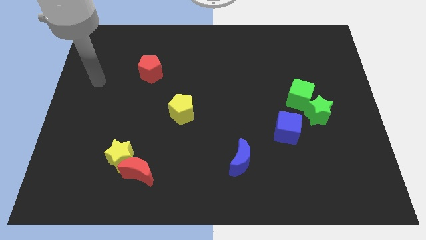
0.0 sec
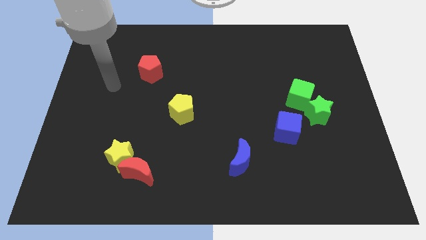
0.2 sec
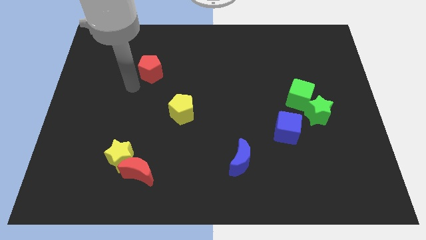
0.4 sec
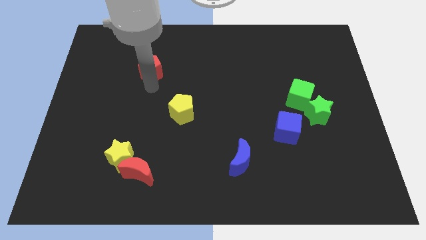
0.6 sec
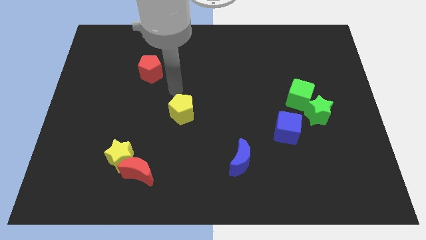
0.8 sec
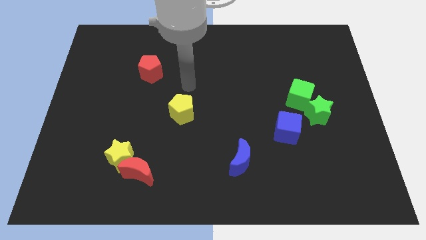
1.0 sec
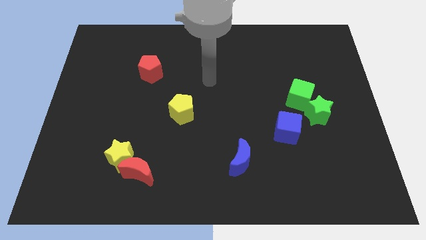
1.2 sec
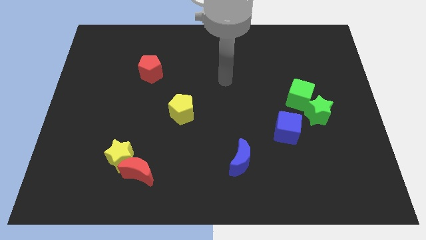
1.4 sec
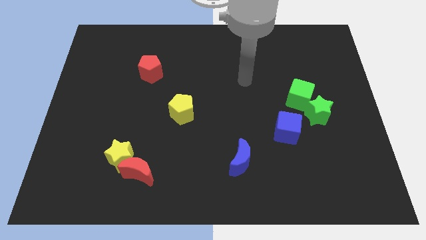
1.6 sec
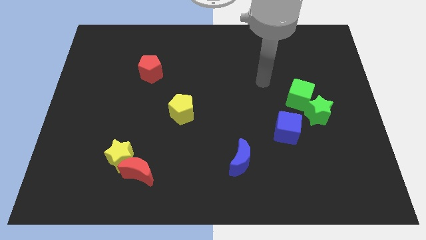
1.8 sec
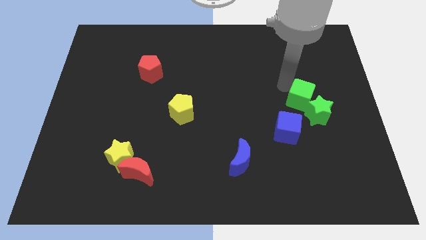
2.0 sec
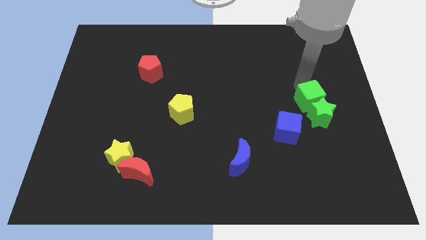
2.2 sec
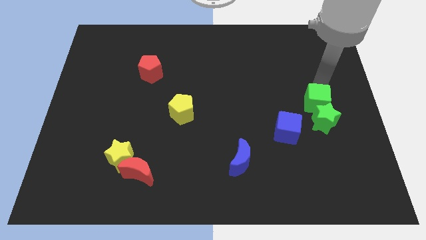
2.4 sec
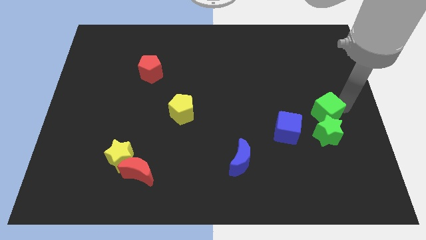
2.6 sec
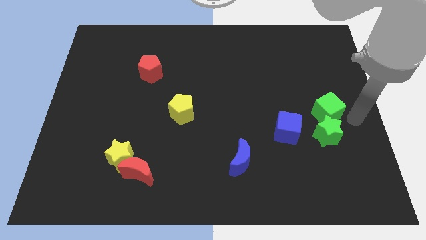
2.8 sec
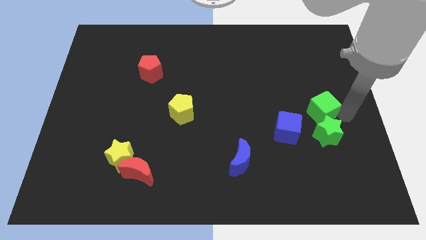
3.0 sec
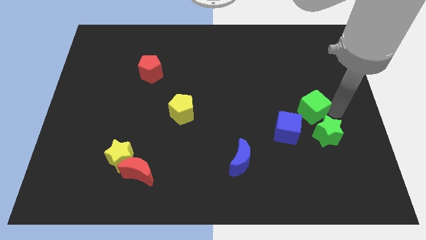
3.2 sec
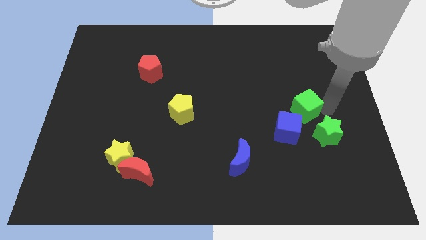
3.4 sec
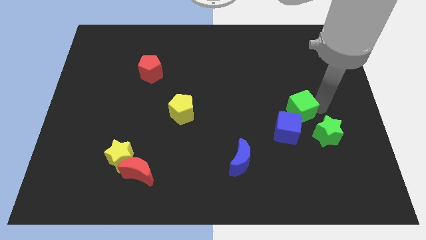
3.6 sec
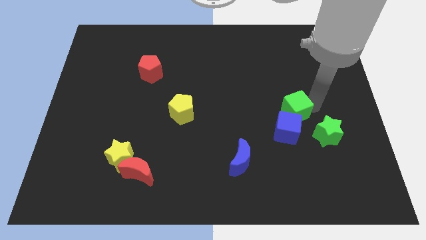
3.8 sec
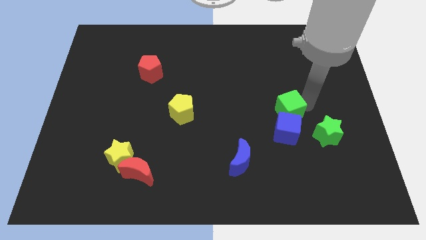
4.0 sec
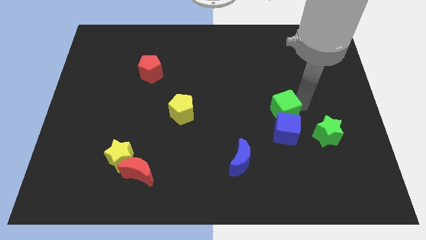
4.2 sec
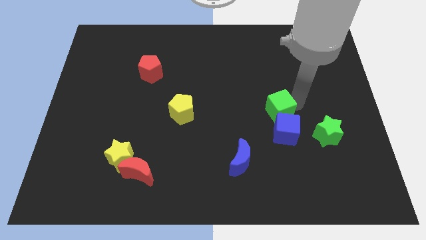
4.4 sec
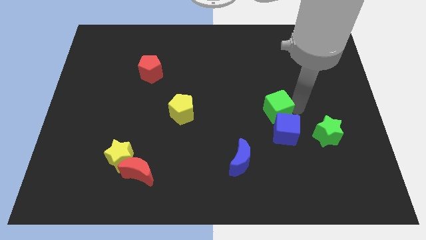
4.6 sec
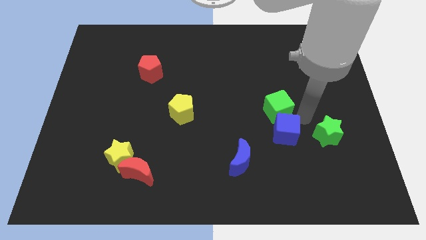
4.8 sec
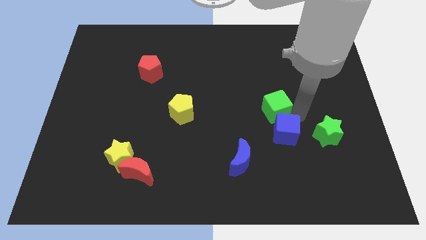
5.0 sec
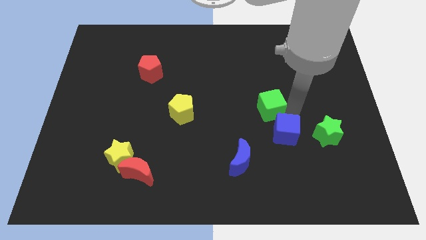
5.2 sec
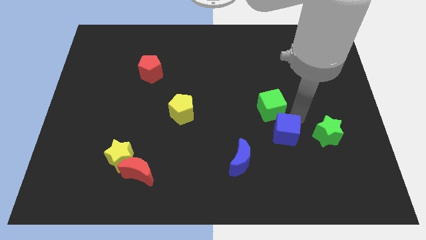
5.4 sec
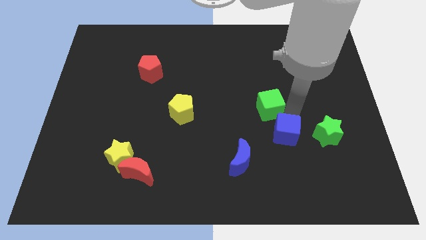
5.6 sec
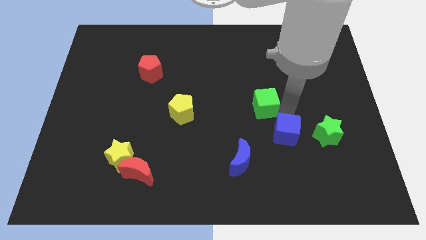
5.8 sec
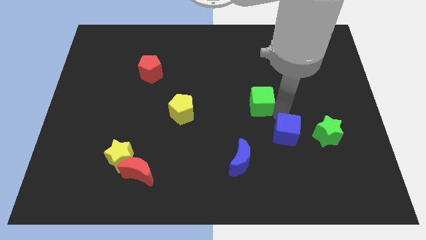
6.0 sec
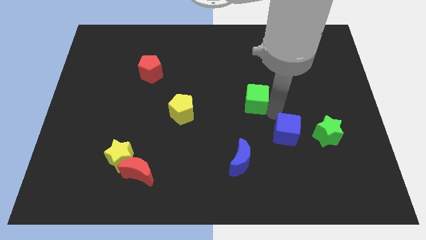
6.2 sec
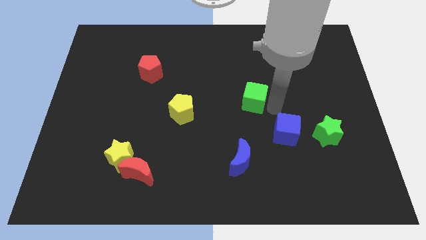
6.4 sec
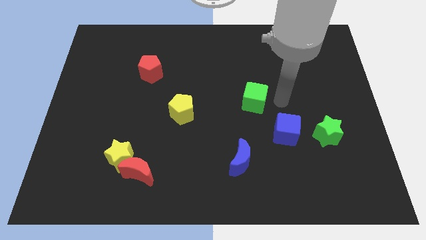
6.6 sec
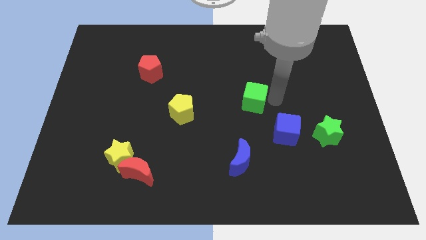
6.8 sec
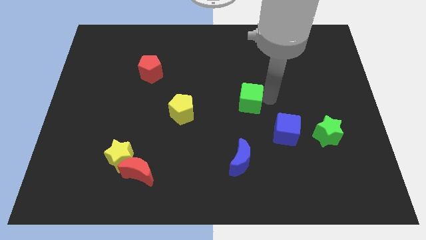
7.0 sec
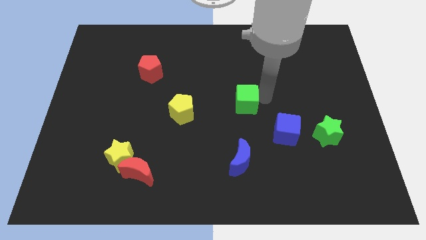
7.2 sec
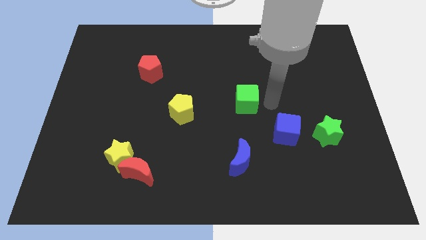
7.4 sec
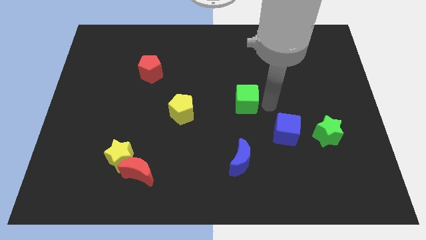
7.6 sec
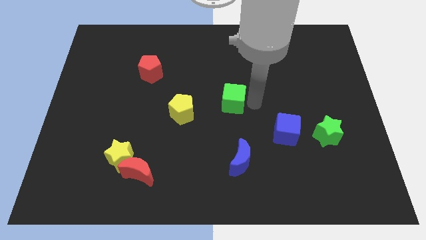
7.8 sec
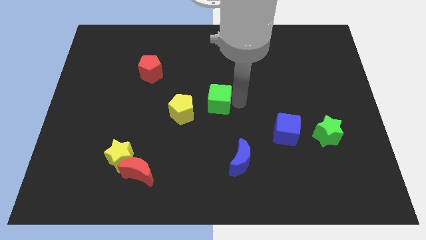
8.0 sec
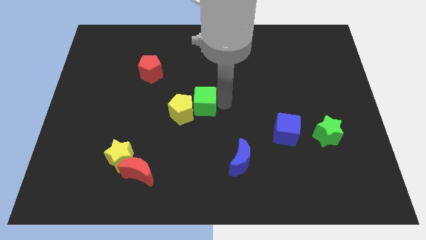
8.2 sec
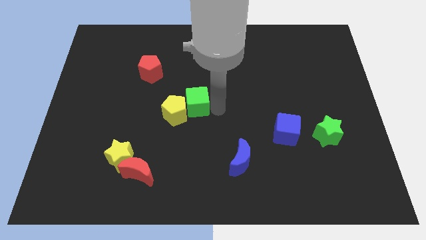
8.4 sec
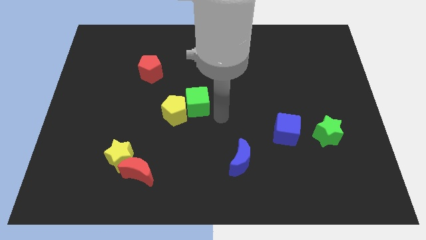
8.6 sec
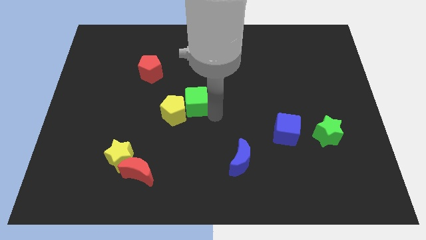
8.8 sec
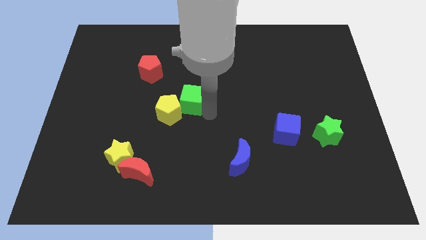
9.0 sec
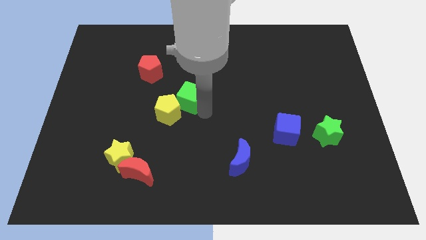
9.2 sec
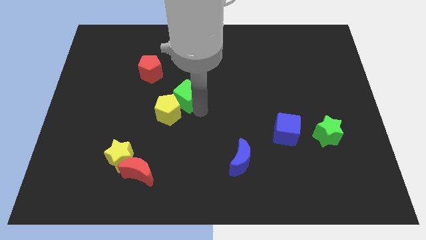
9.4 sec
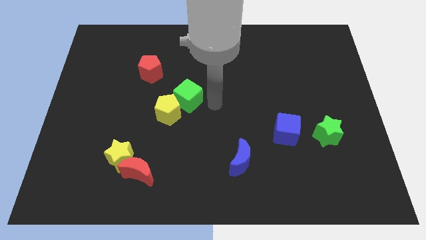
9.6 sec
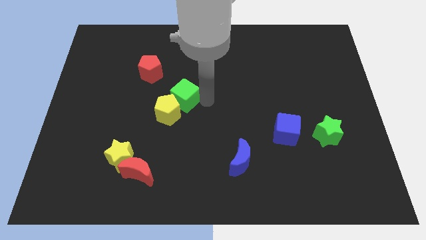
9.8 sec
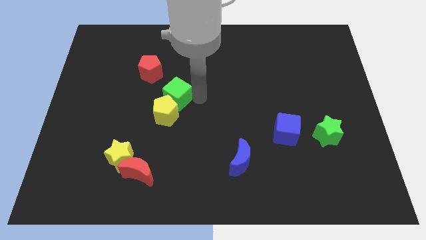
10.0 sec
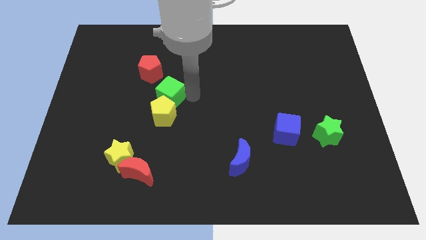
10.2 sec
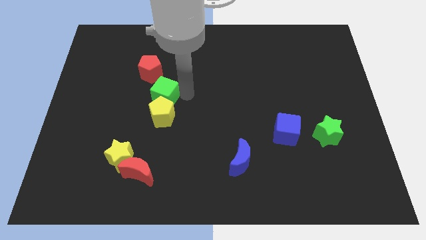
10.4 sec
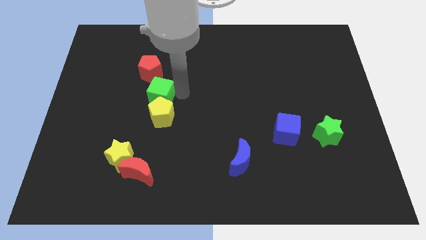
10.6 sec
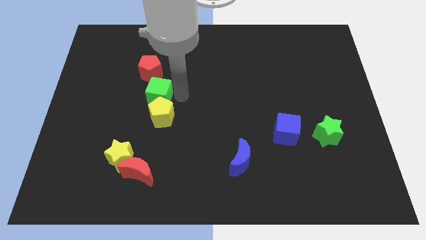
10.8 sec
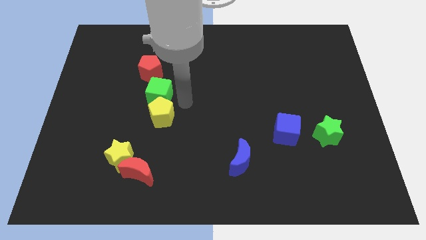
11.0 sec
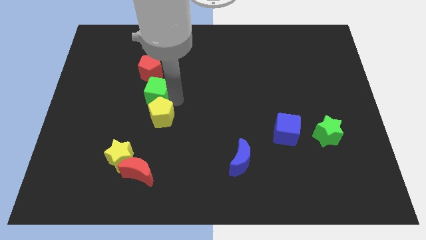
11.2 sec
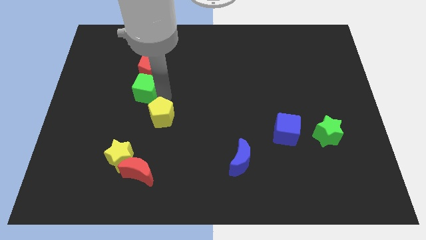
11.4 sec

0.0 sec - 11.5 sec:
move the green cube to the bottom left side of the red pentagon

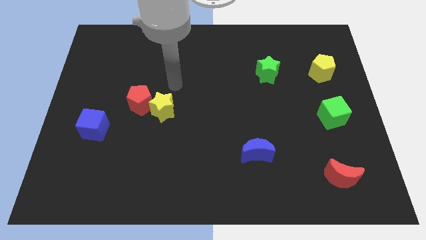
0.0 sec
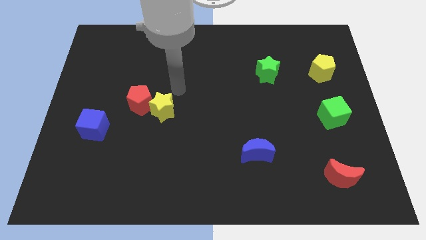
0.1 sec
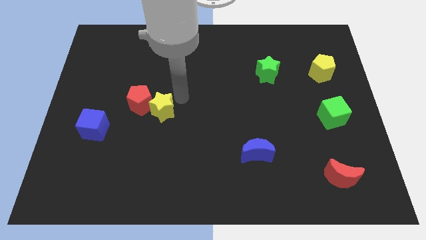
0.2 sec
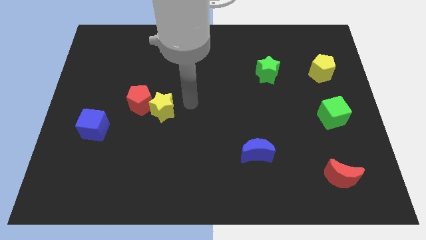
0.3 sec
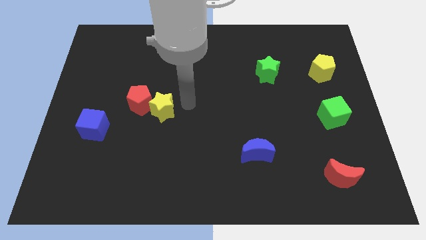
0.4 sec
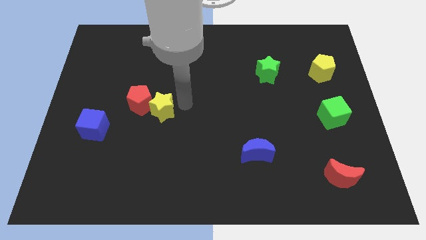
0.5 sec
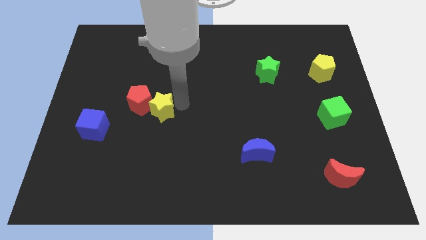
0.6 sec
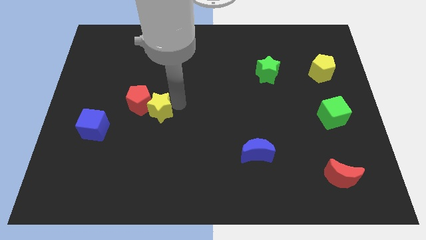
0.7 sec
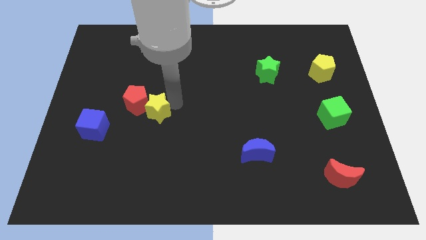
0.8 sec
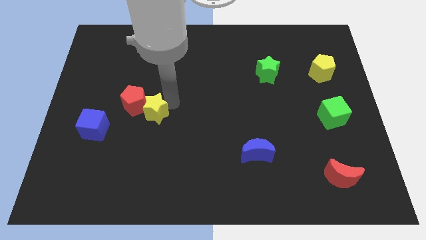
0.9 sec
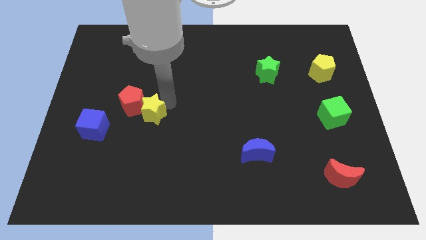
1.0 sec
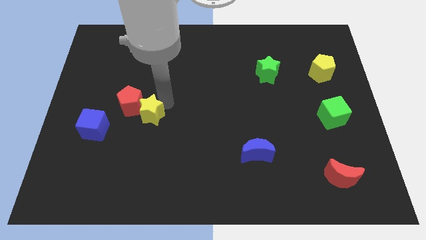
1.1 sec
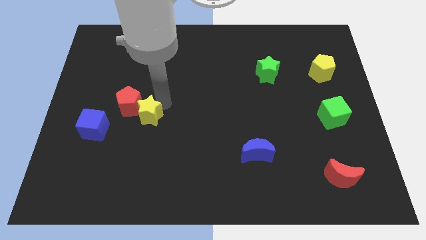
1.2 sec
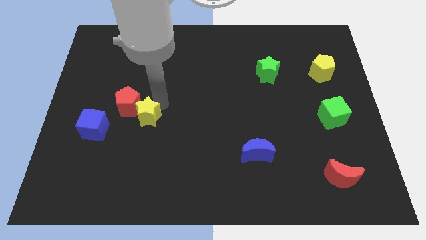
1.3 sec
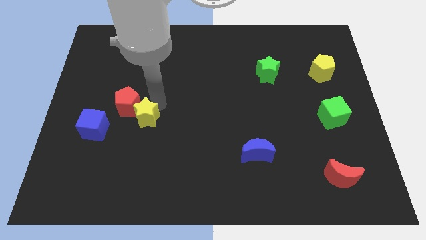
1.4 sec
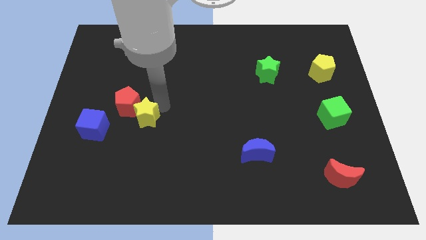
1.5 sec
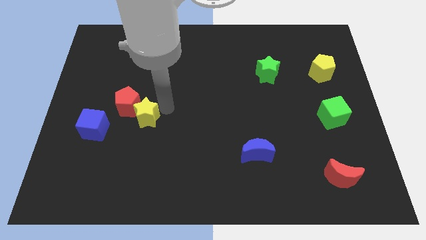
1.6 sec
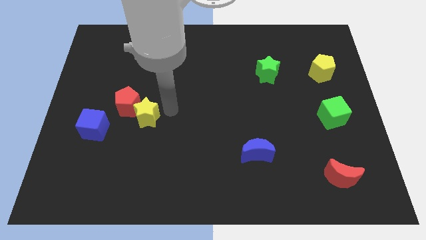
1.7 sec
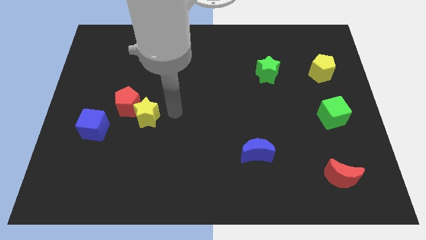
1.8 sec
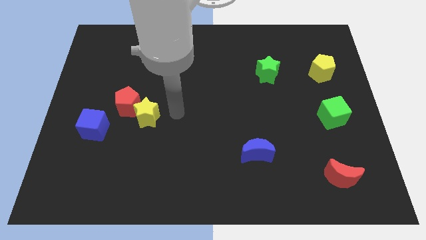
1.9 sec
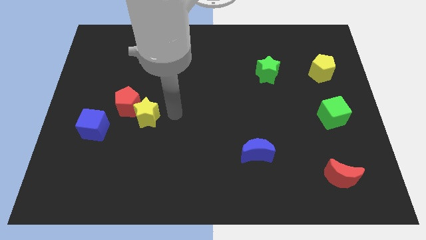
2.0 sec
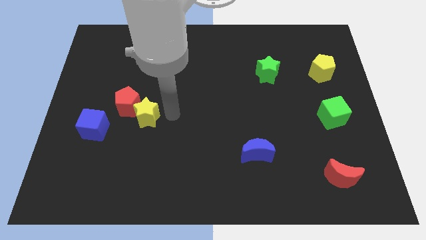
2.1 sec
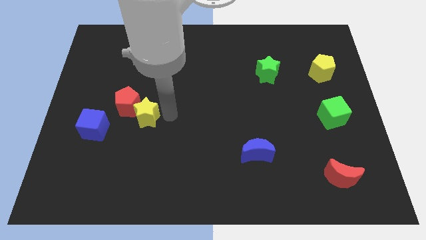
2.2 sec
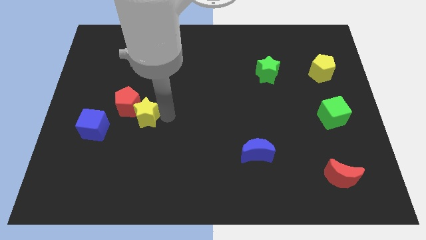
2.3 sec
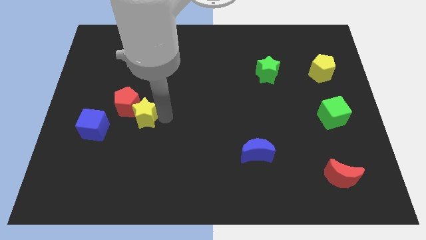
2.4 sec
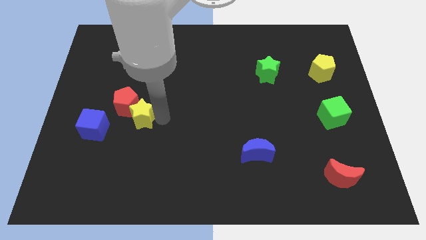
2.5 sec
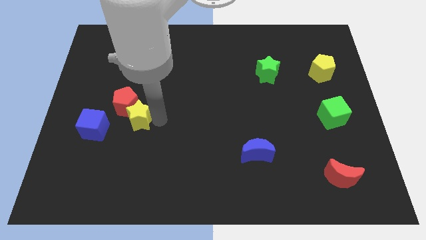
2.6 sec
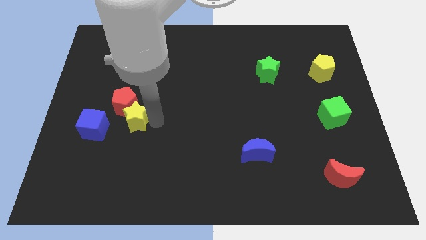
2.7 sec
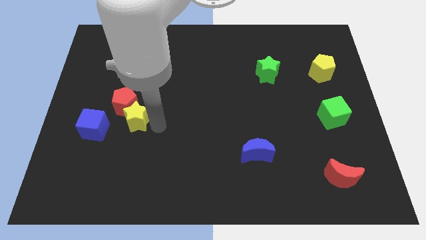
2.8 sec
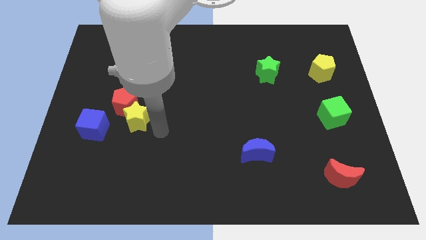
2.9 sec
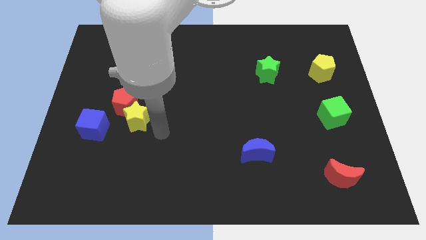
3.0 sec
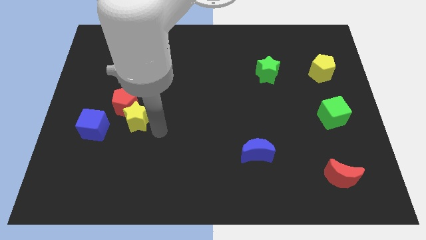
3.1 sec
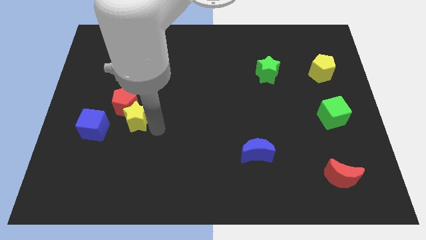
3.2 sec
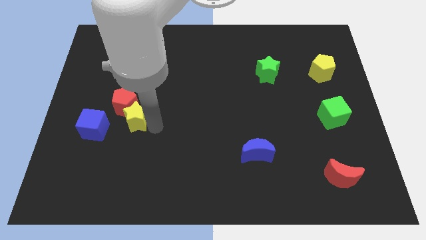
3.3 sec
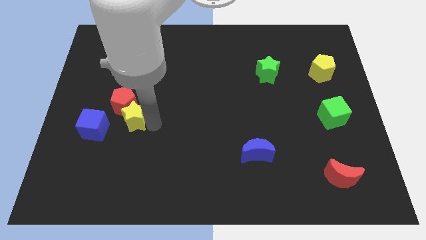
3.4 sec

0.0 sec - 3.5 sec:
move the yellow star to the top right of the blue cube
